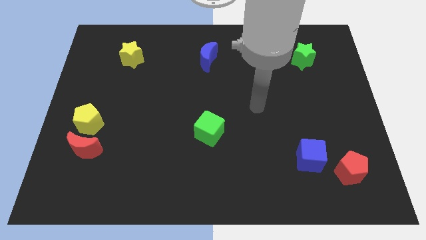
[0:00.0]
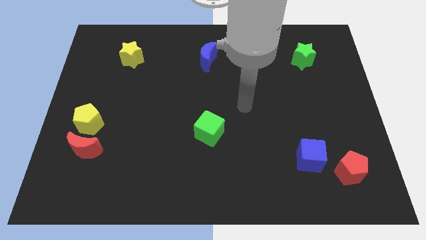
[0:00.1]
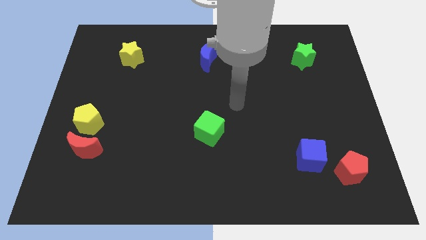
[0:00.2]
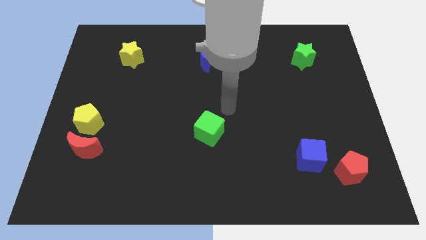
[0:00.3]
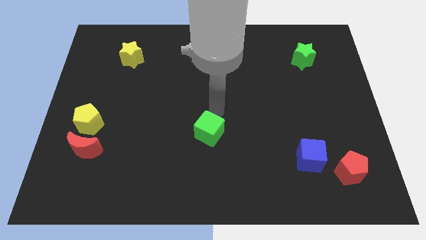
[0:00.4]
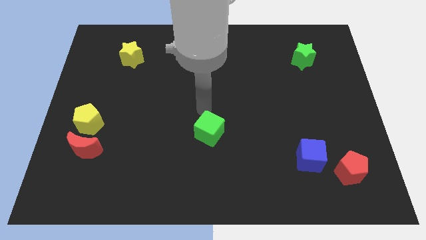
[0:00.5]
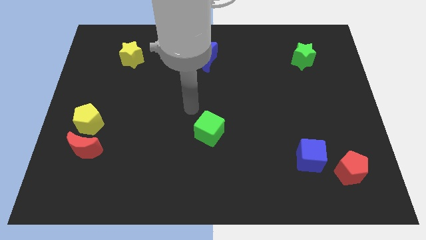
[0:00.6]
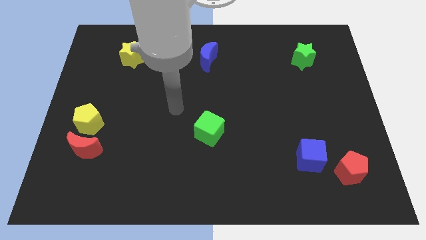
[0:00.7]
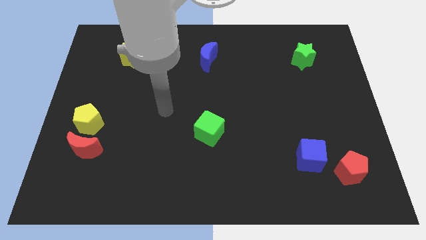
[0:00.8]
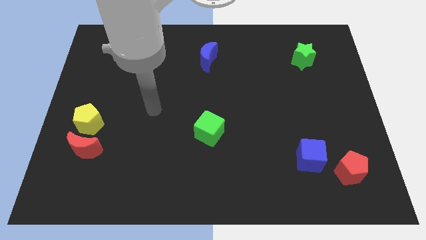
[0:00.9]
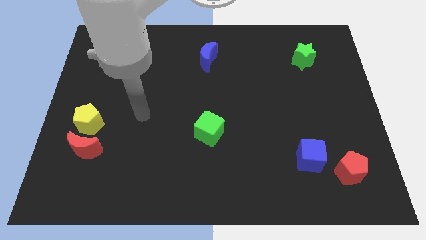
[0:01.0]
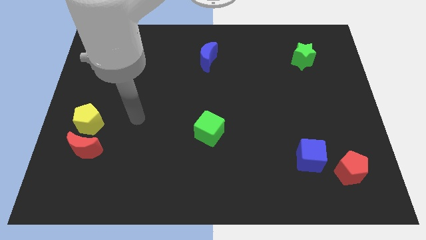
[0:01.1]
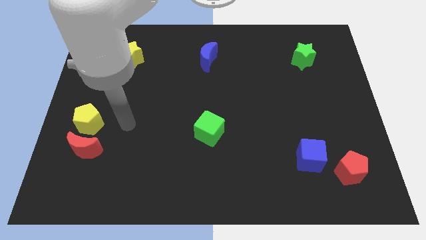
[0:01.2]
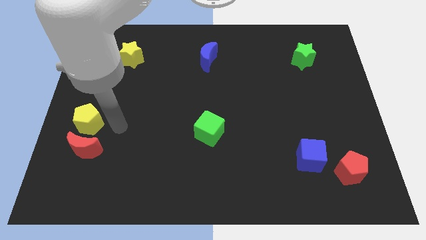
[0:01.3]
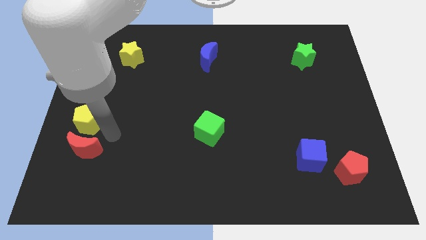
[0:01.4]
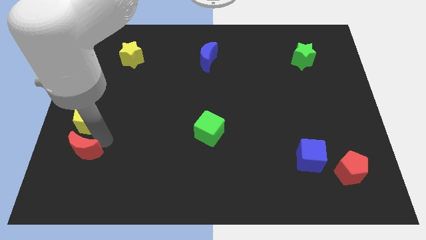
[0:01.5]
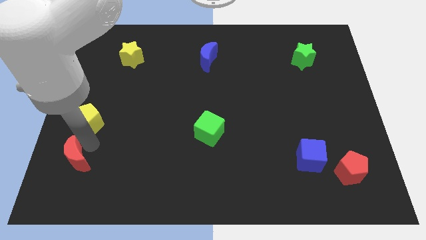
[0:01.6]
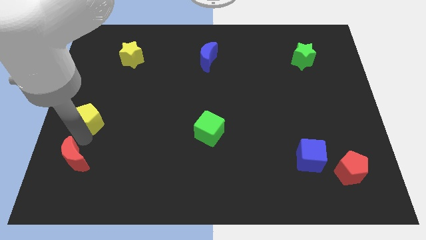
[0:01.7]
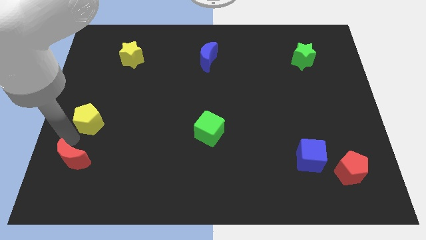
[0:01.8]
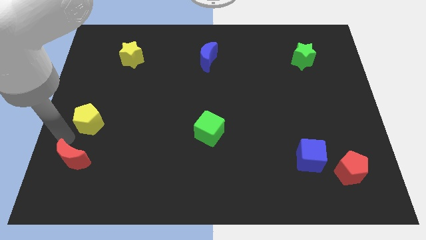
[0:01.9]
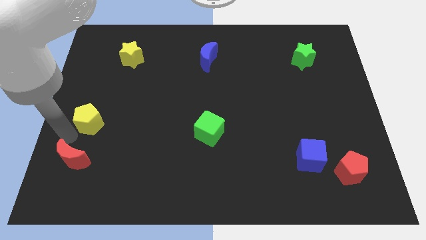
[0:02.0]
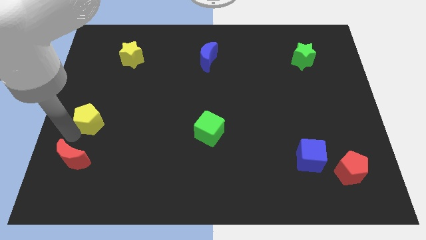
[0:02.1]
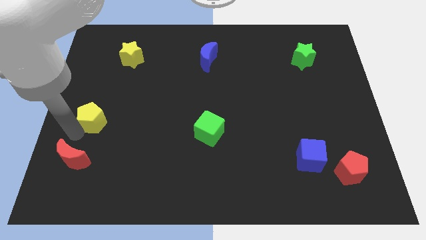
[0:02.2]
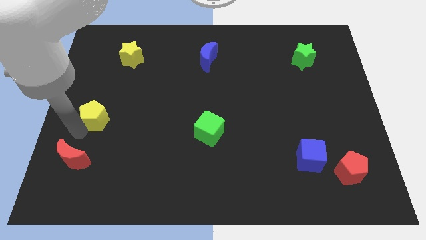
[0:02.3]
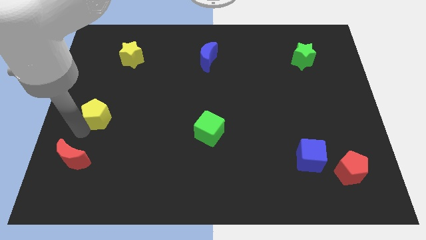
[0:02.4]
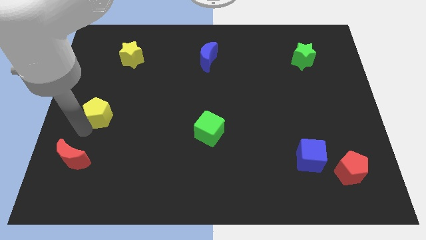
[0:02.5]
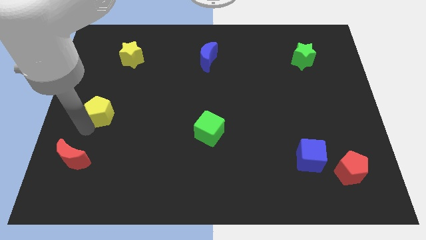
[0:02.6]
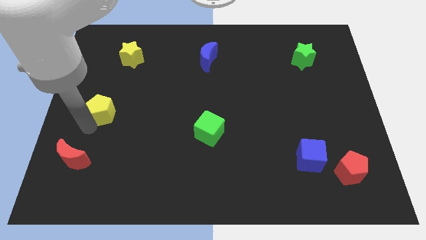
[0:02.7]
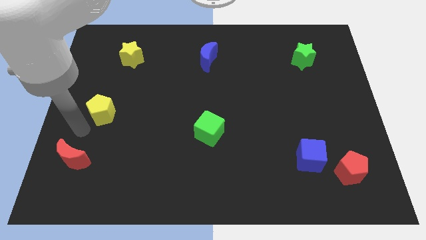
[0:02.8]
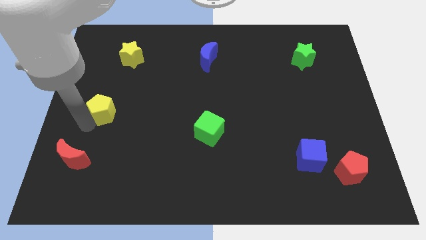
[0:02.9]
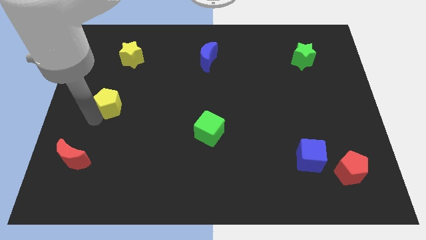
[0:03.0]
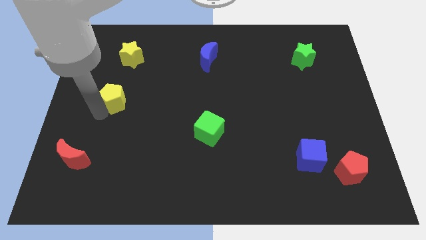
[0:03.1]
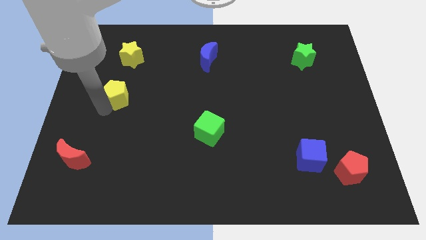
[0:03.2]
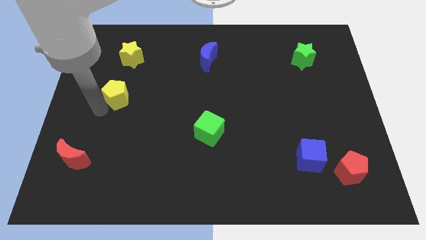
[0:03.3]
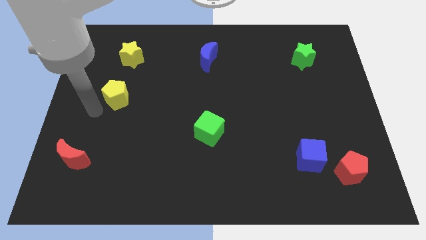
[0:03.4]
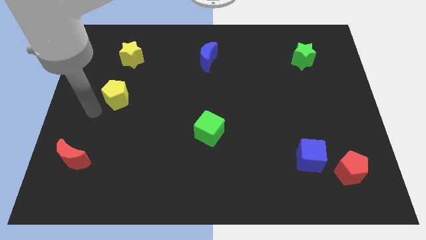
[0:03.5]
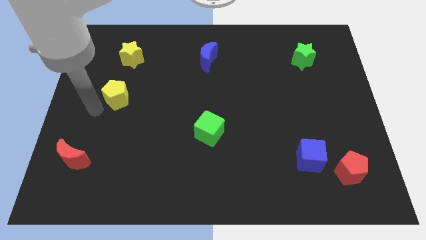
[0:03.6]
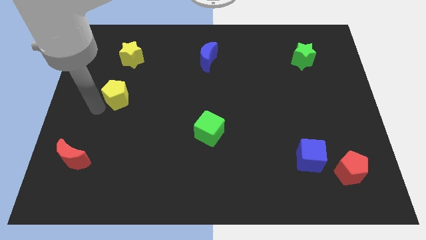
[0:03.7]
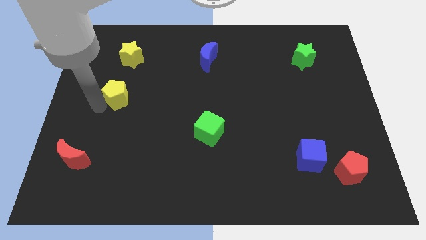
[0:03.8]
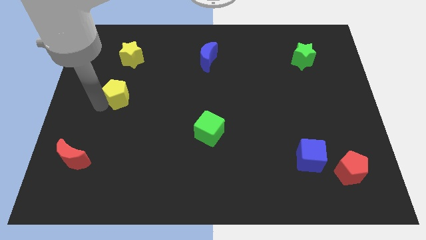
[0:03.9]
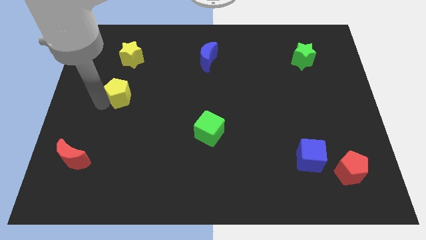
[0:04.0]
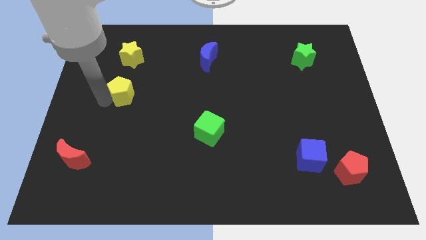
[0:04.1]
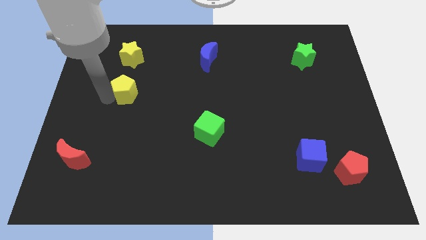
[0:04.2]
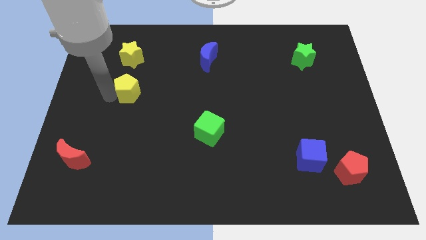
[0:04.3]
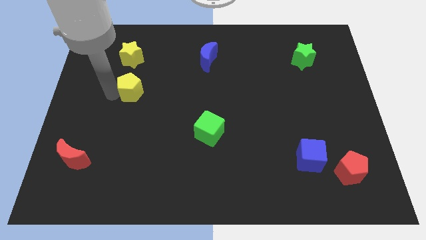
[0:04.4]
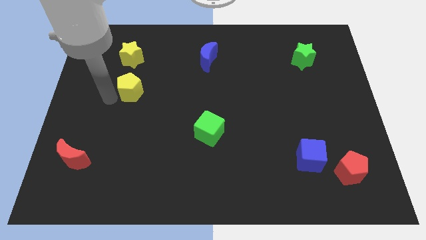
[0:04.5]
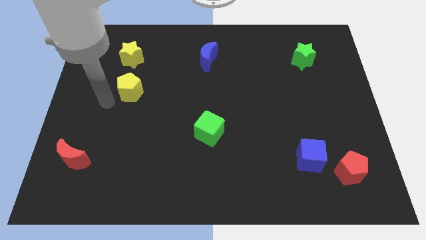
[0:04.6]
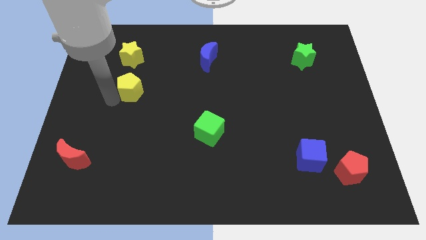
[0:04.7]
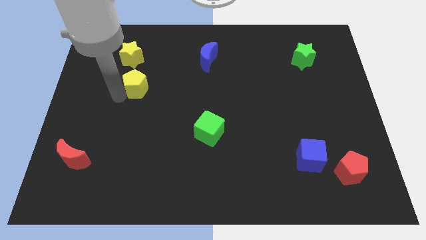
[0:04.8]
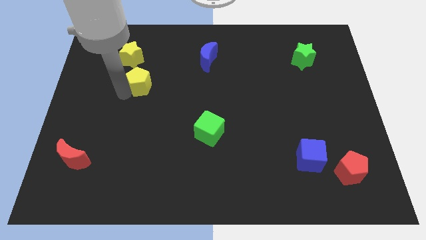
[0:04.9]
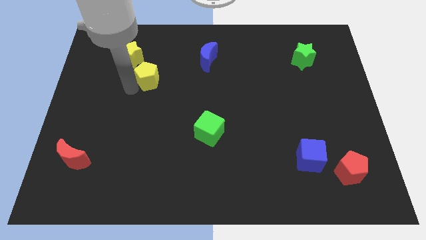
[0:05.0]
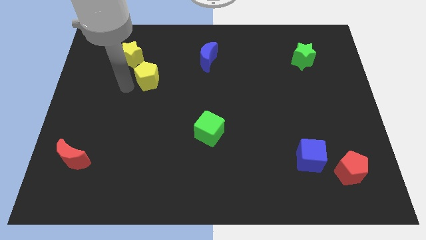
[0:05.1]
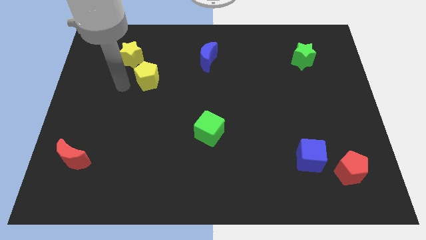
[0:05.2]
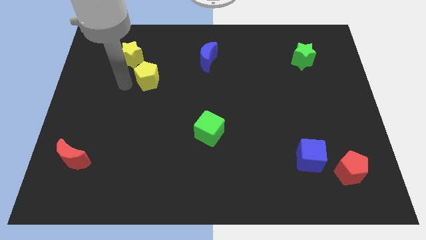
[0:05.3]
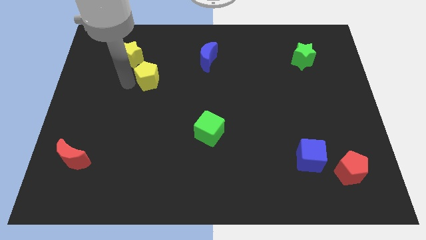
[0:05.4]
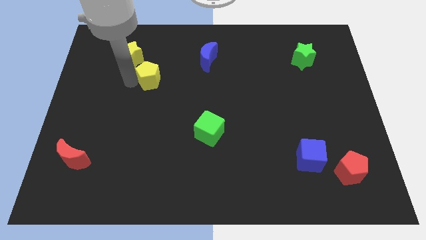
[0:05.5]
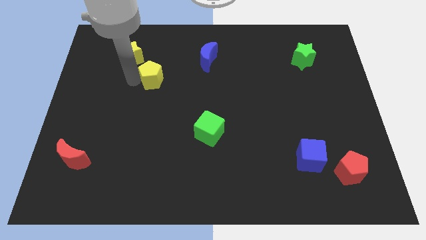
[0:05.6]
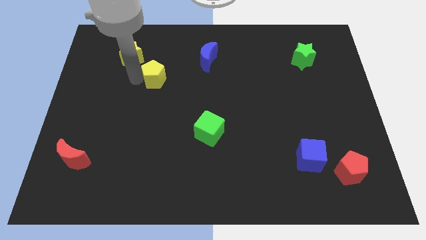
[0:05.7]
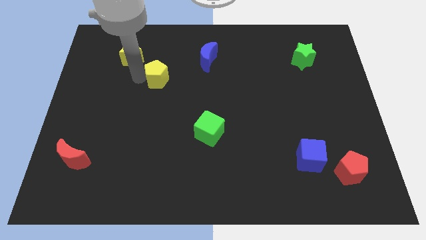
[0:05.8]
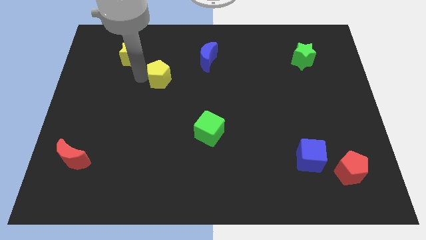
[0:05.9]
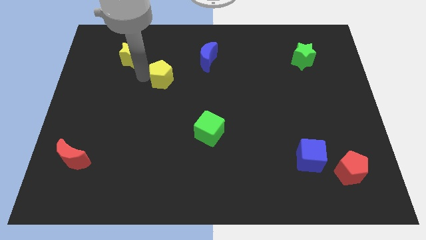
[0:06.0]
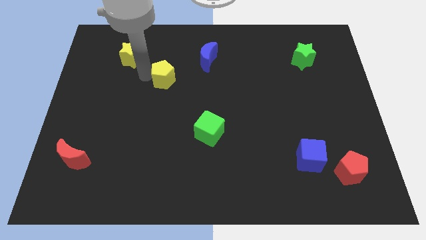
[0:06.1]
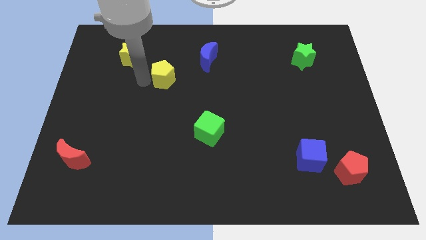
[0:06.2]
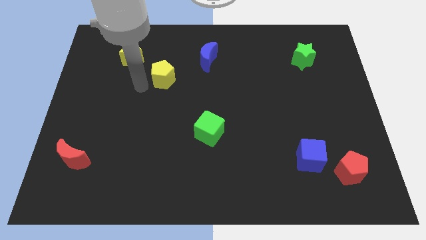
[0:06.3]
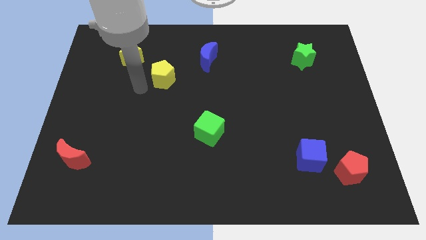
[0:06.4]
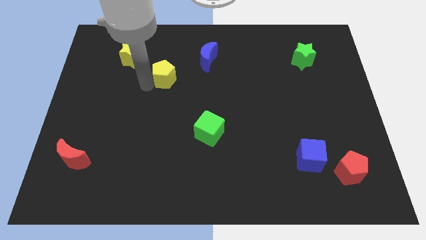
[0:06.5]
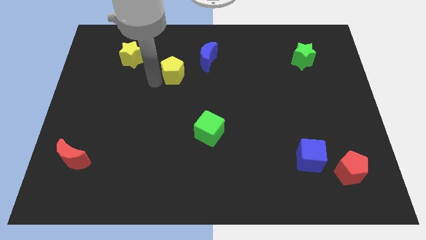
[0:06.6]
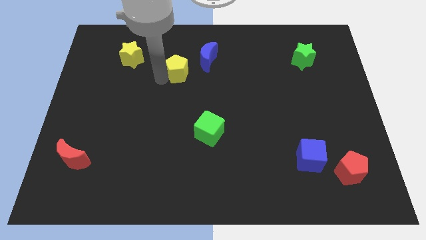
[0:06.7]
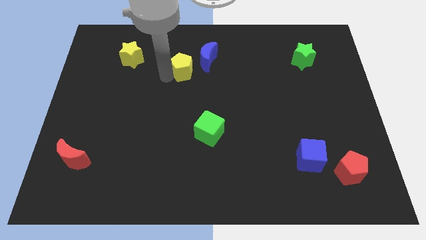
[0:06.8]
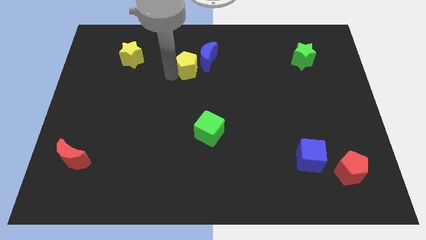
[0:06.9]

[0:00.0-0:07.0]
slide the yellow pentagon close to the blue moon

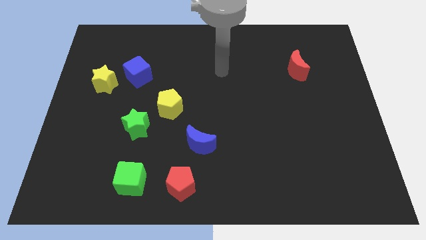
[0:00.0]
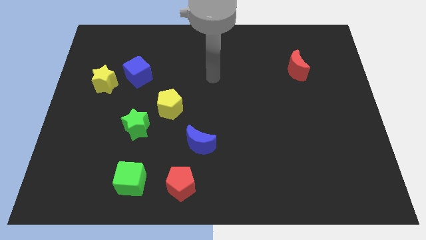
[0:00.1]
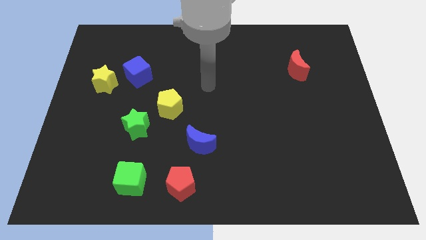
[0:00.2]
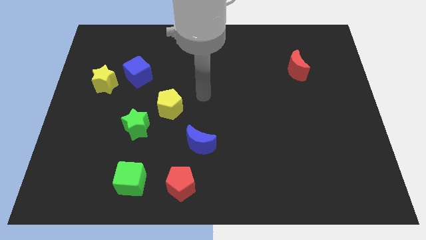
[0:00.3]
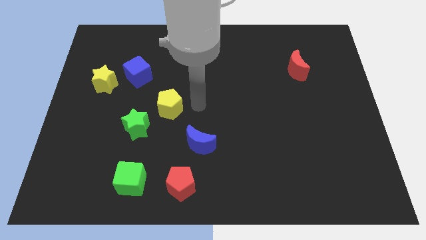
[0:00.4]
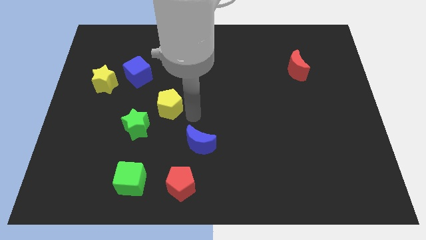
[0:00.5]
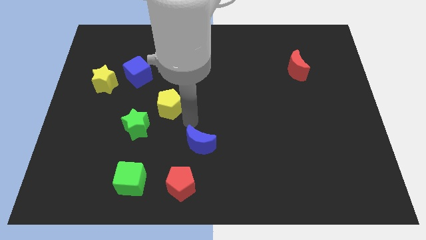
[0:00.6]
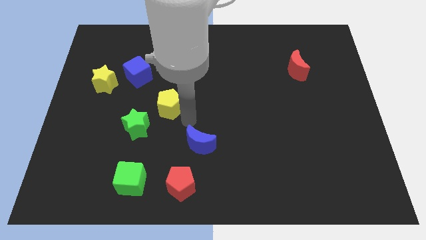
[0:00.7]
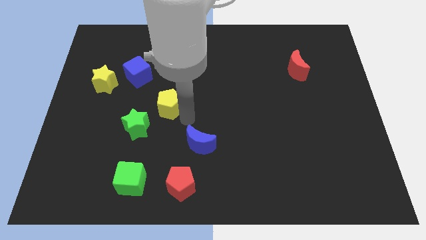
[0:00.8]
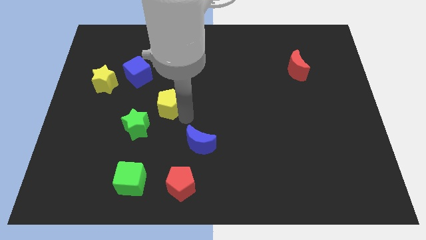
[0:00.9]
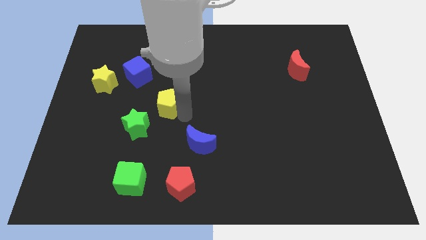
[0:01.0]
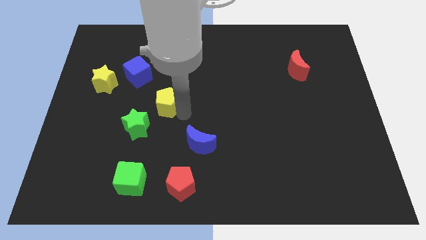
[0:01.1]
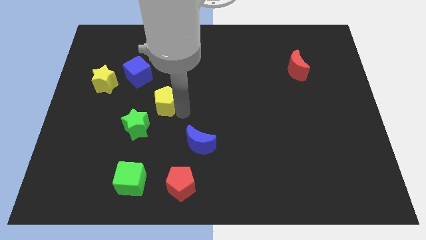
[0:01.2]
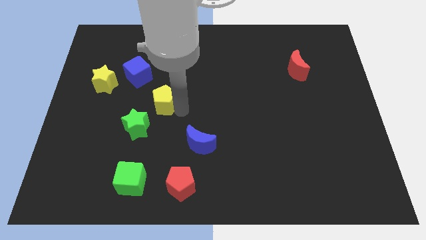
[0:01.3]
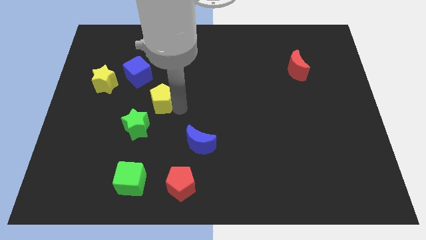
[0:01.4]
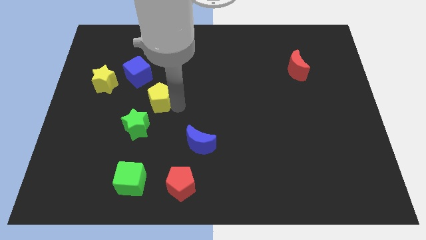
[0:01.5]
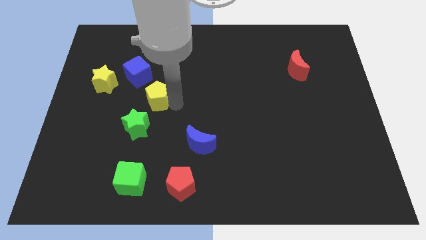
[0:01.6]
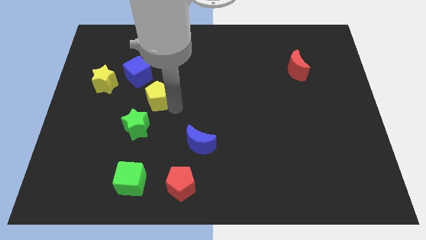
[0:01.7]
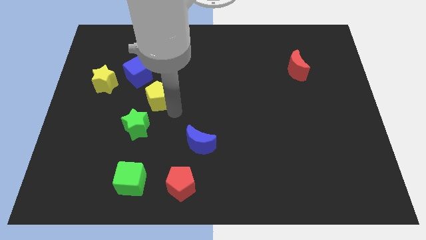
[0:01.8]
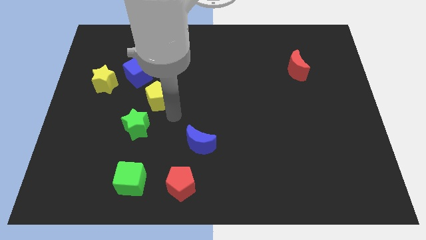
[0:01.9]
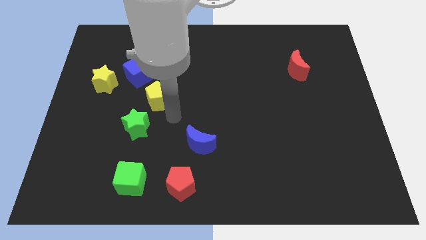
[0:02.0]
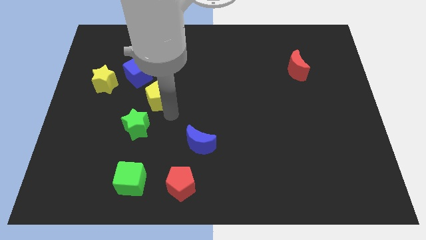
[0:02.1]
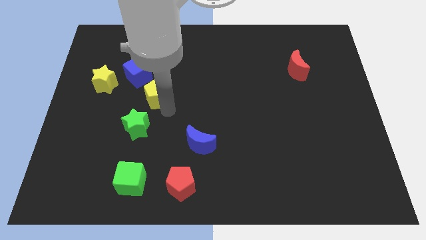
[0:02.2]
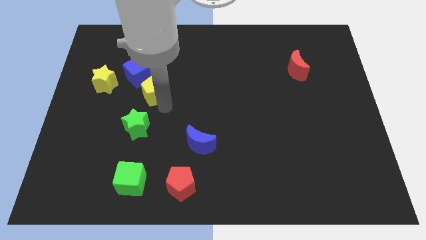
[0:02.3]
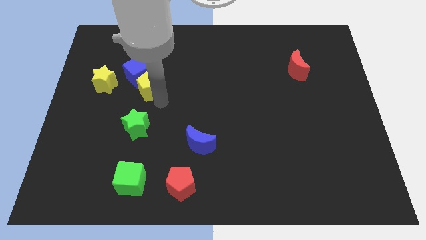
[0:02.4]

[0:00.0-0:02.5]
slide the yellow pentagon close to the blue cube
